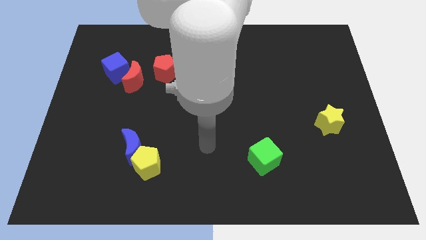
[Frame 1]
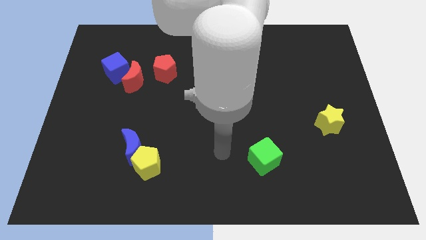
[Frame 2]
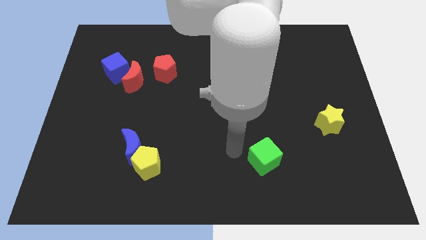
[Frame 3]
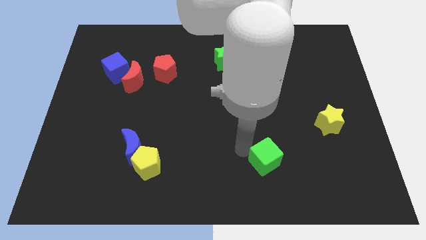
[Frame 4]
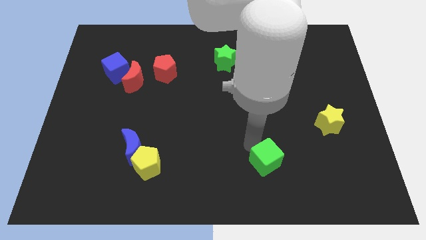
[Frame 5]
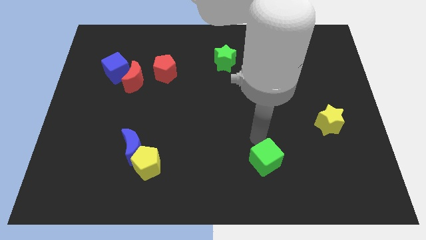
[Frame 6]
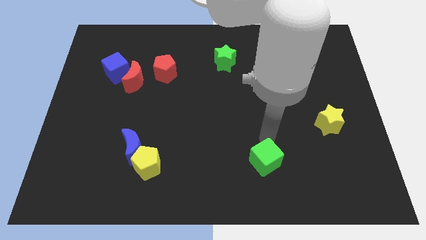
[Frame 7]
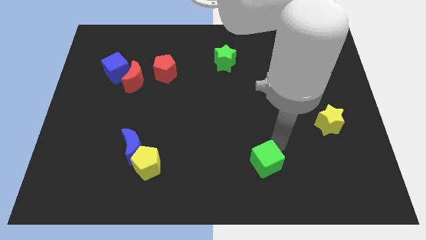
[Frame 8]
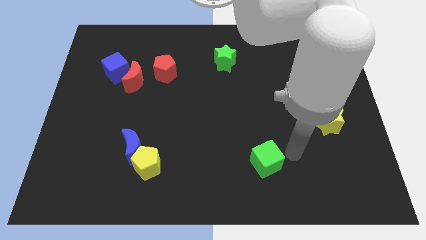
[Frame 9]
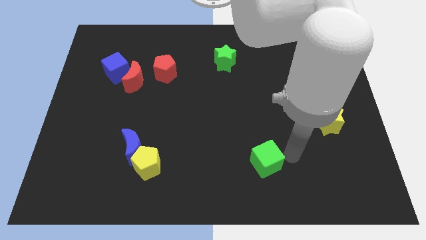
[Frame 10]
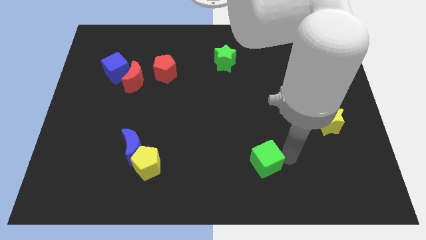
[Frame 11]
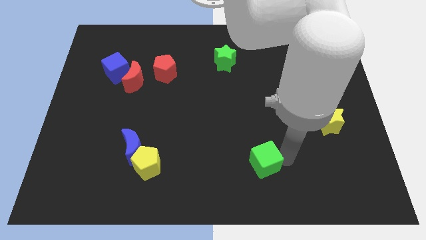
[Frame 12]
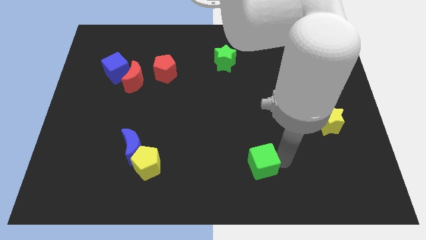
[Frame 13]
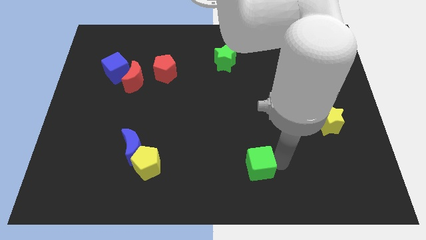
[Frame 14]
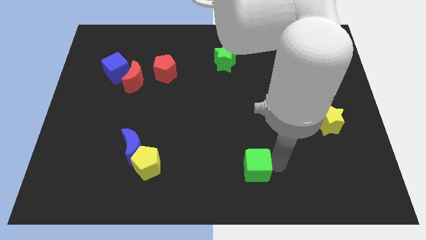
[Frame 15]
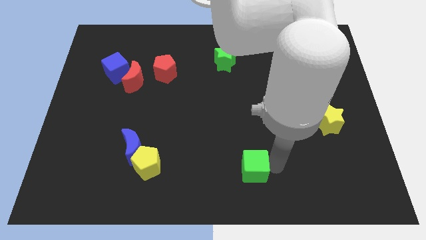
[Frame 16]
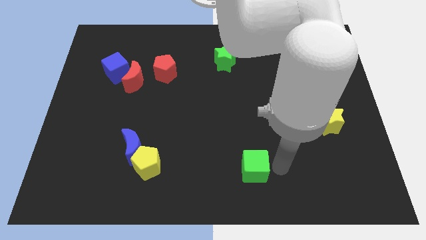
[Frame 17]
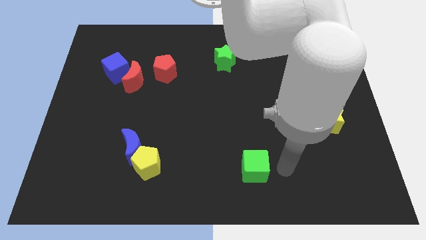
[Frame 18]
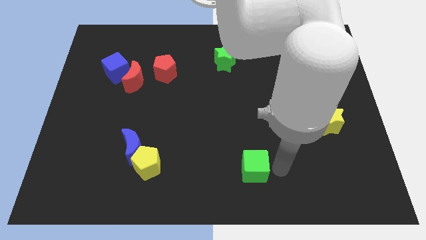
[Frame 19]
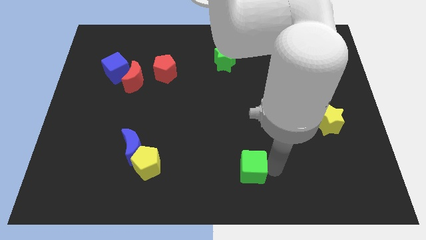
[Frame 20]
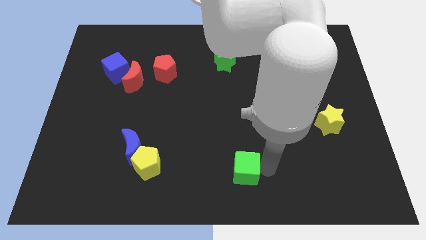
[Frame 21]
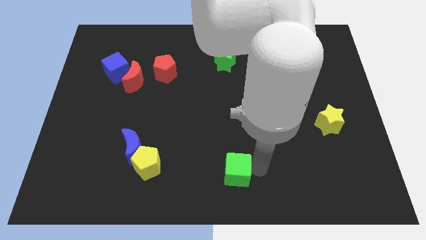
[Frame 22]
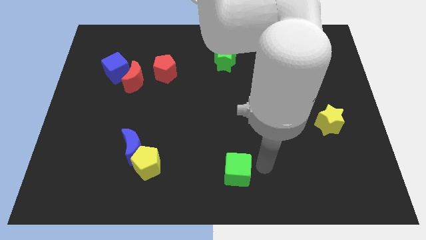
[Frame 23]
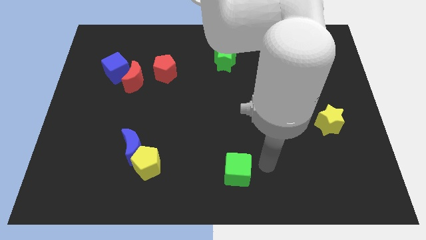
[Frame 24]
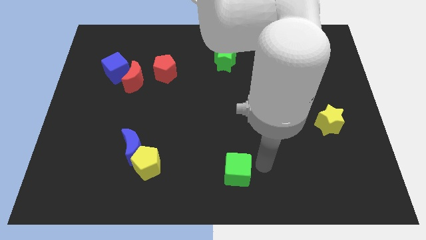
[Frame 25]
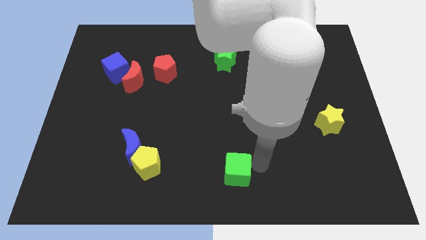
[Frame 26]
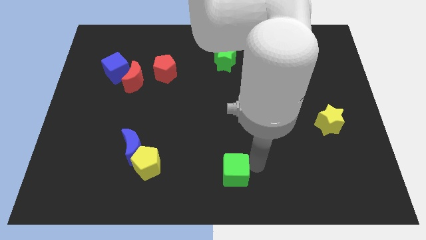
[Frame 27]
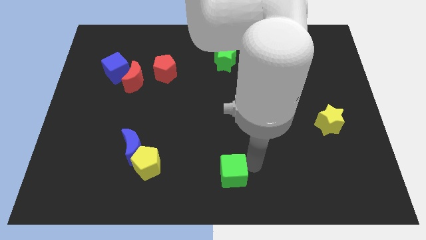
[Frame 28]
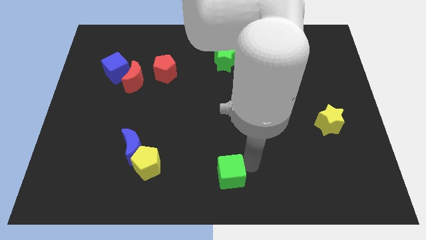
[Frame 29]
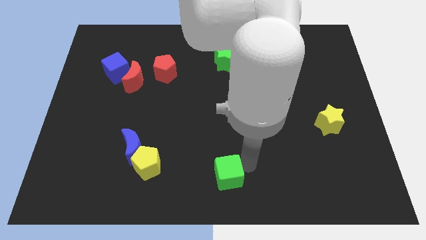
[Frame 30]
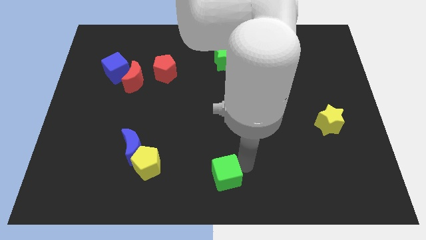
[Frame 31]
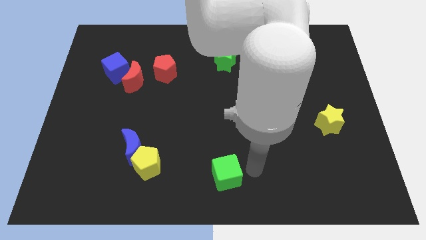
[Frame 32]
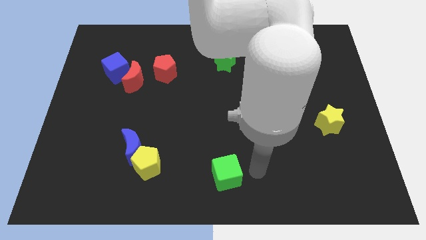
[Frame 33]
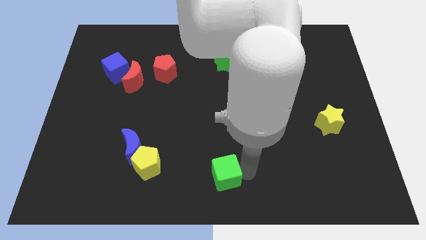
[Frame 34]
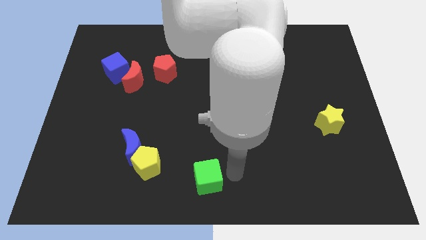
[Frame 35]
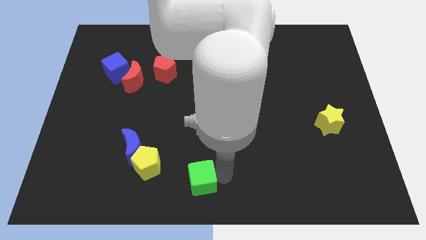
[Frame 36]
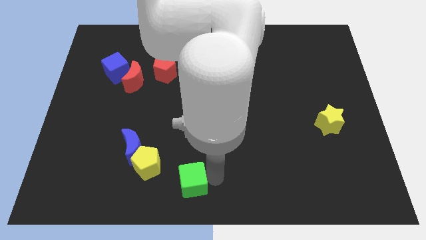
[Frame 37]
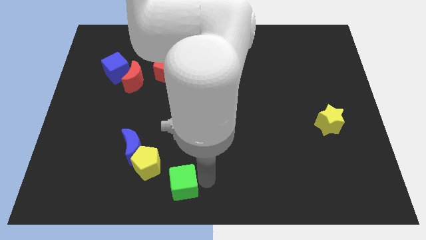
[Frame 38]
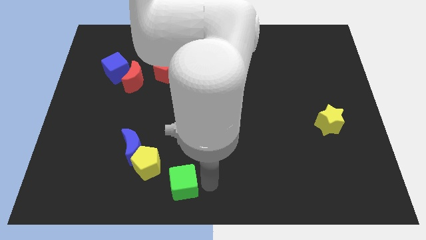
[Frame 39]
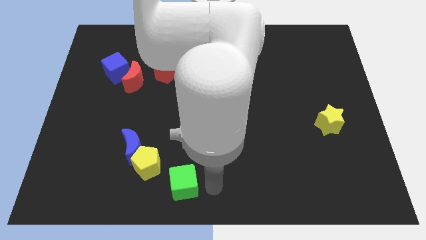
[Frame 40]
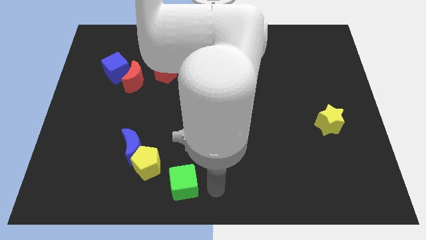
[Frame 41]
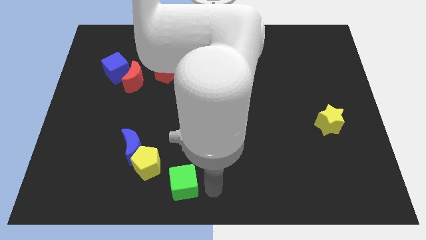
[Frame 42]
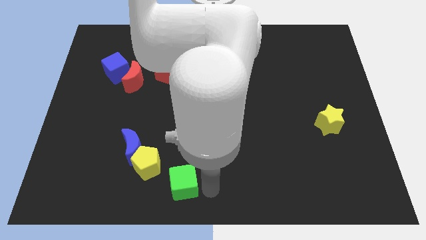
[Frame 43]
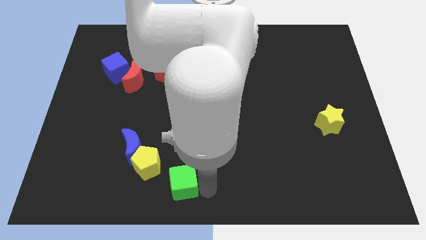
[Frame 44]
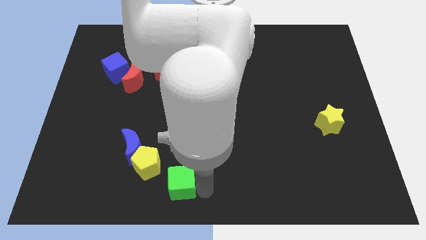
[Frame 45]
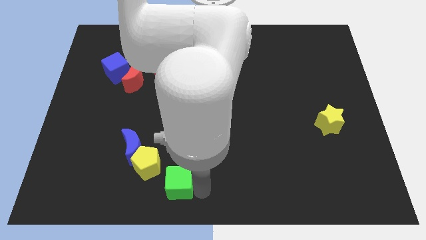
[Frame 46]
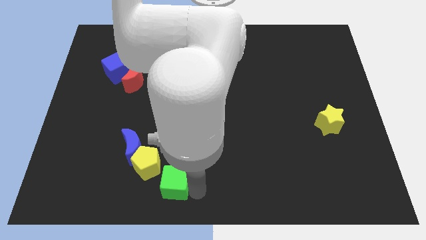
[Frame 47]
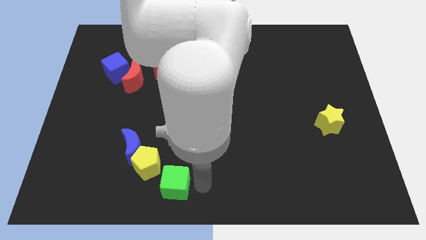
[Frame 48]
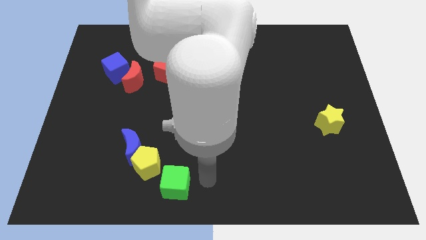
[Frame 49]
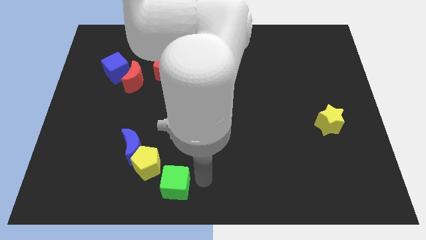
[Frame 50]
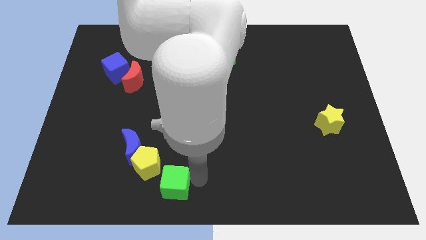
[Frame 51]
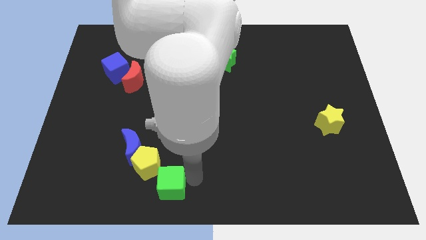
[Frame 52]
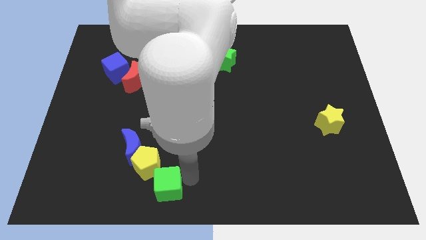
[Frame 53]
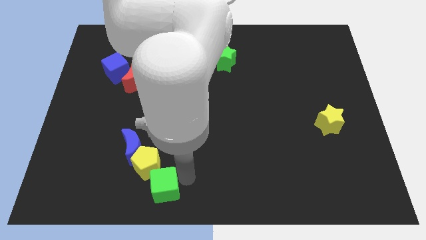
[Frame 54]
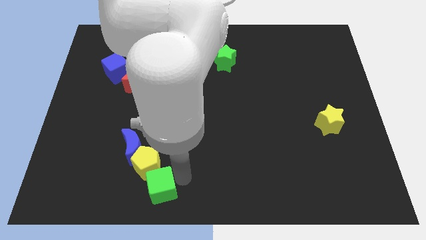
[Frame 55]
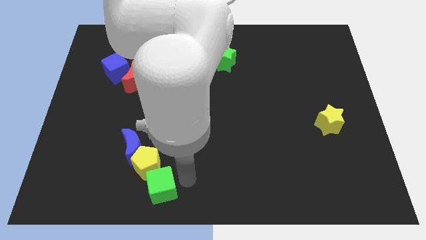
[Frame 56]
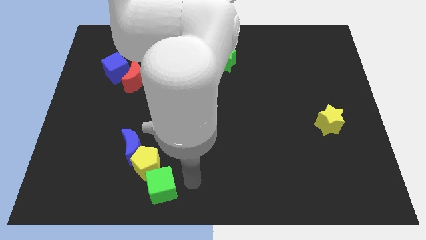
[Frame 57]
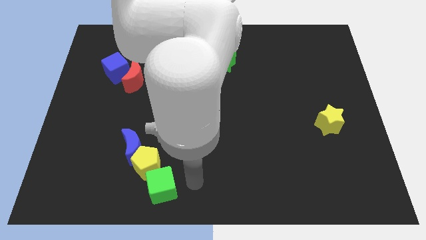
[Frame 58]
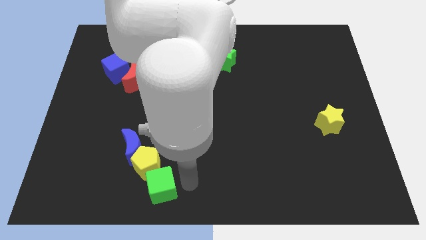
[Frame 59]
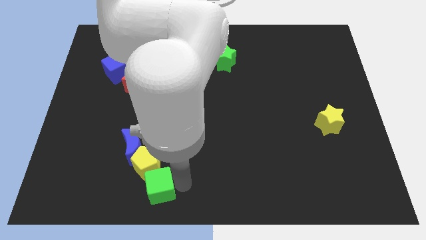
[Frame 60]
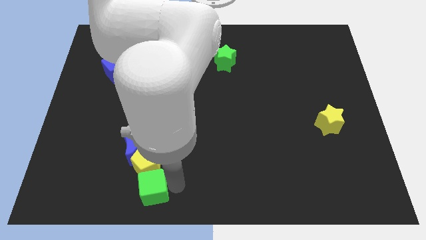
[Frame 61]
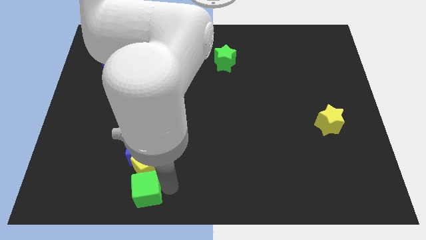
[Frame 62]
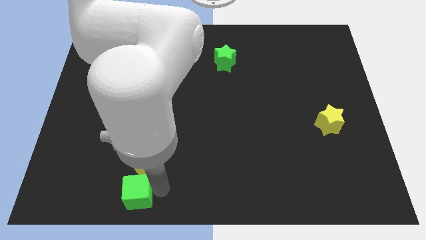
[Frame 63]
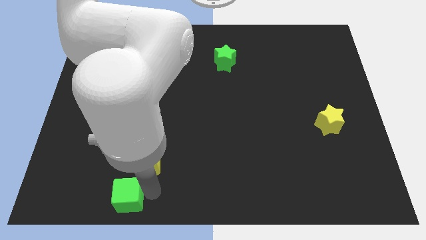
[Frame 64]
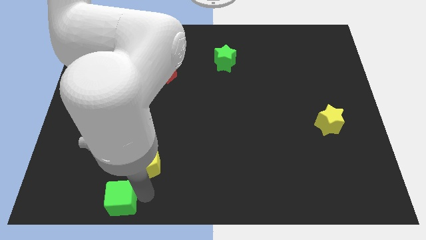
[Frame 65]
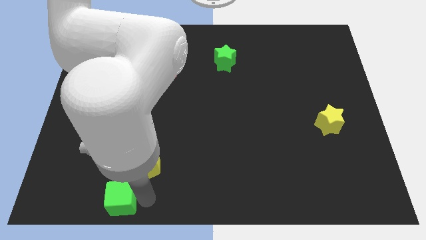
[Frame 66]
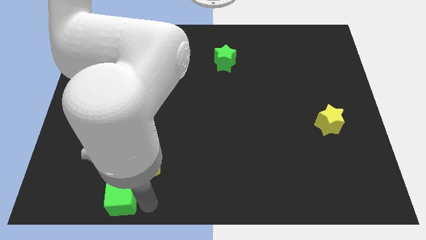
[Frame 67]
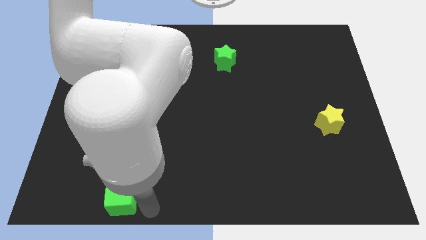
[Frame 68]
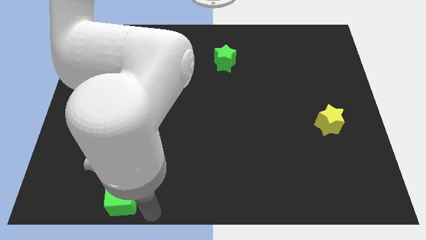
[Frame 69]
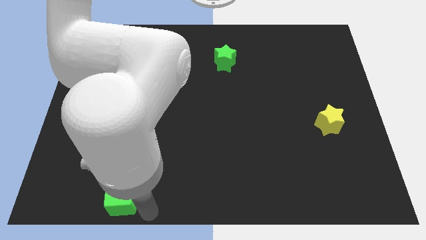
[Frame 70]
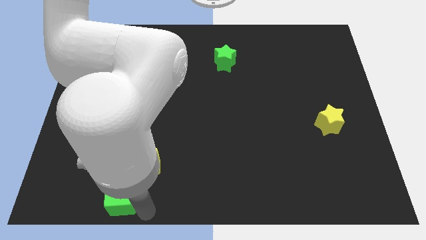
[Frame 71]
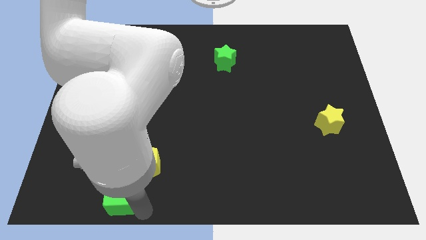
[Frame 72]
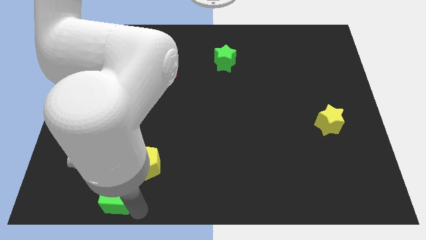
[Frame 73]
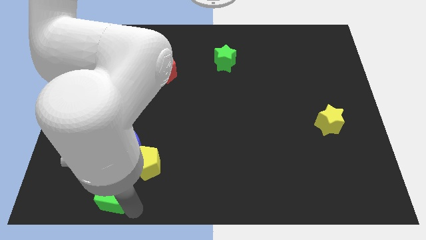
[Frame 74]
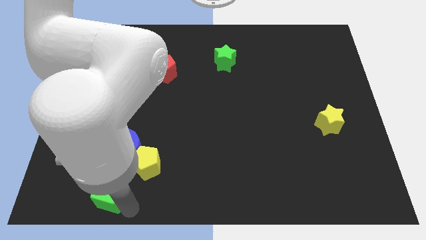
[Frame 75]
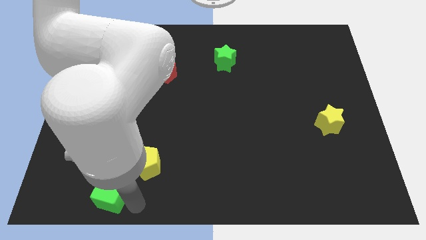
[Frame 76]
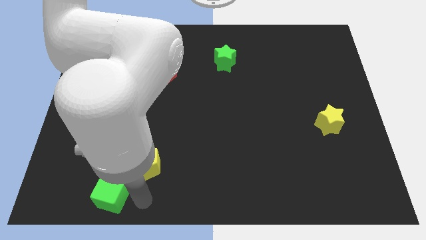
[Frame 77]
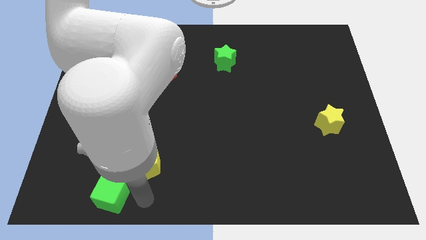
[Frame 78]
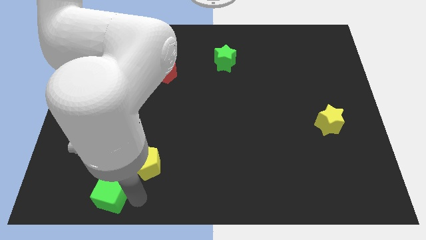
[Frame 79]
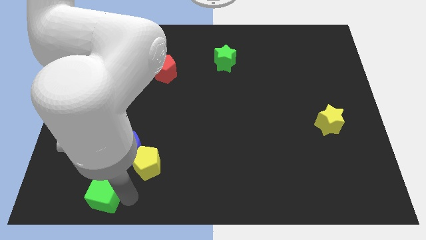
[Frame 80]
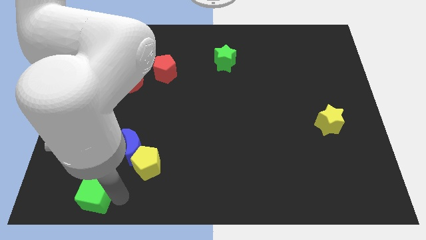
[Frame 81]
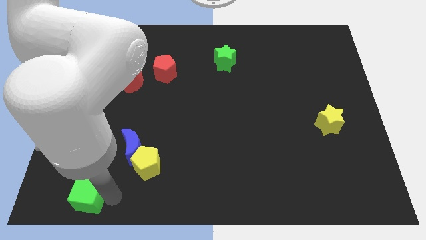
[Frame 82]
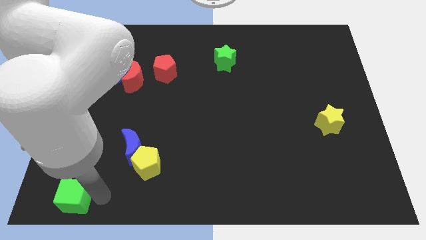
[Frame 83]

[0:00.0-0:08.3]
move the green cube to the bottom left corner
